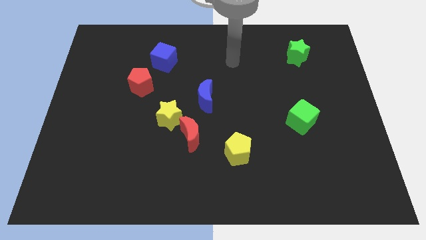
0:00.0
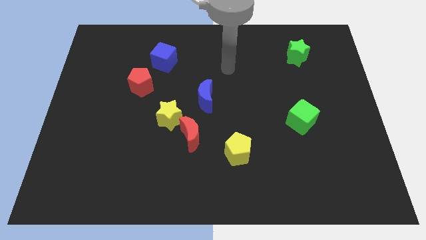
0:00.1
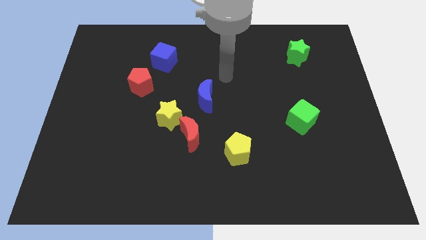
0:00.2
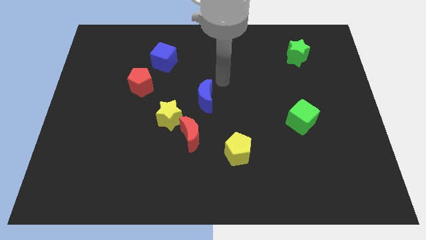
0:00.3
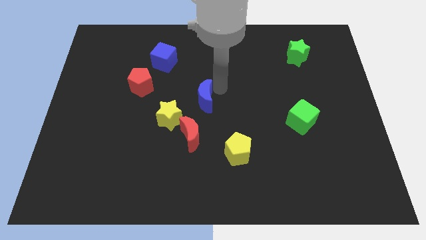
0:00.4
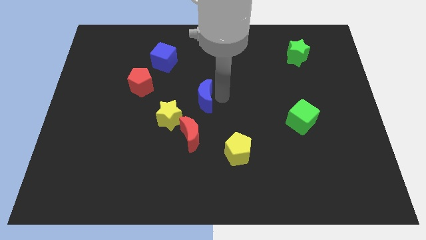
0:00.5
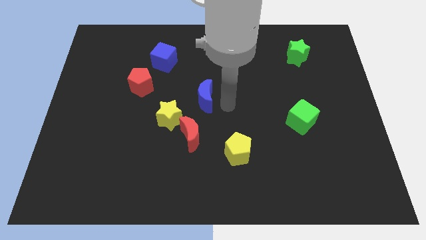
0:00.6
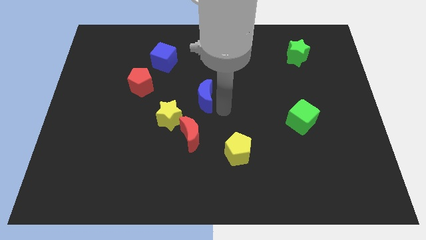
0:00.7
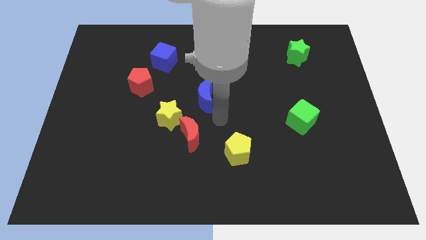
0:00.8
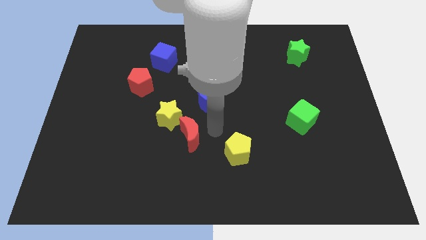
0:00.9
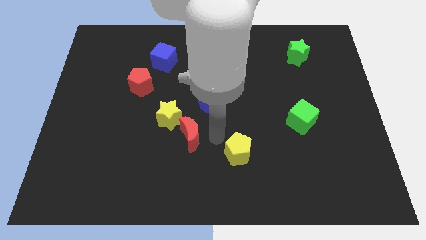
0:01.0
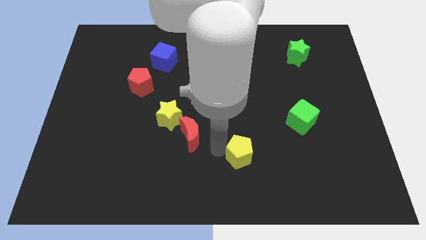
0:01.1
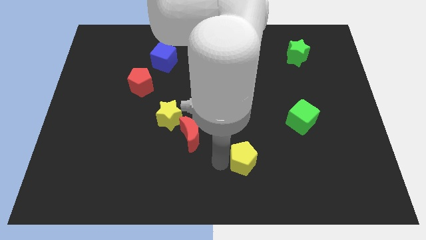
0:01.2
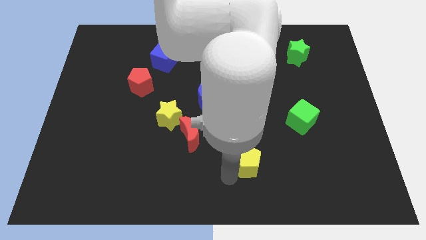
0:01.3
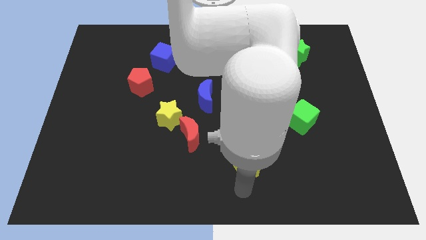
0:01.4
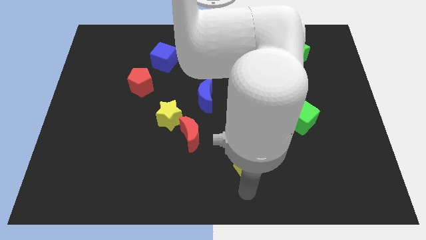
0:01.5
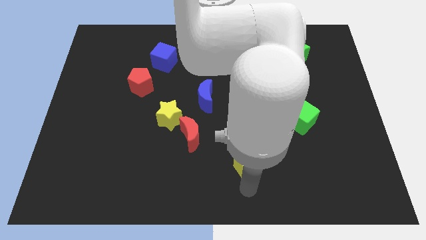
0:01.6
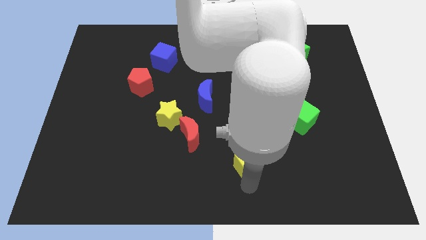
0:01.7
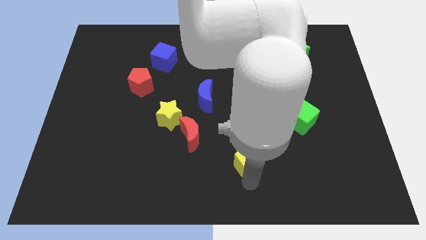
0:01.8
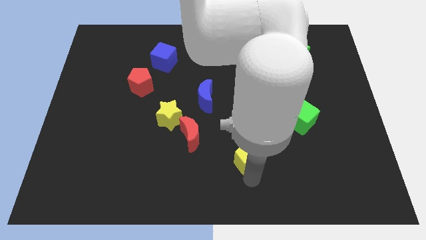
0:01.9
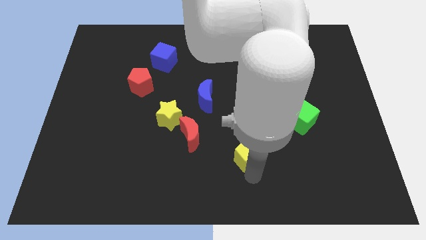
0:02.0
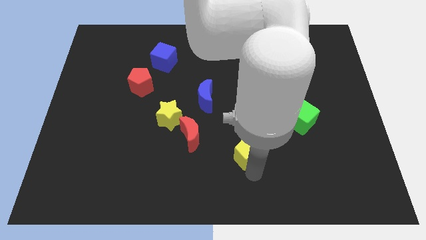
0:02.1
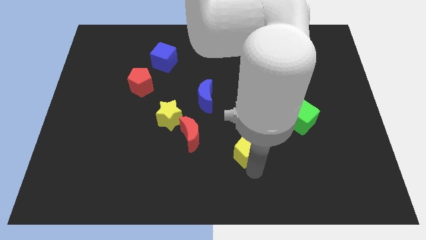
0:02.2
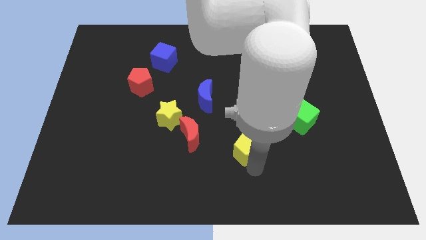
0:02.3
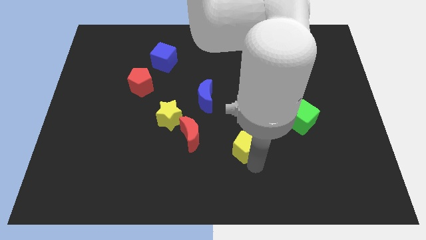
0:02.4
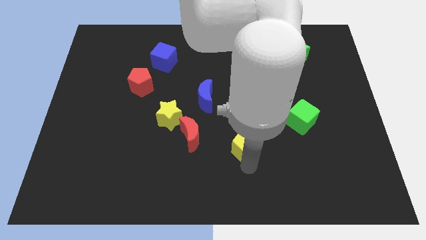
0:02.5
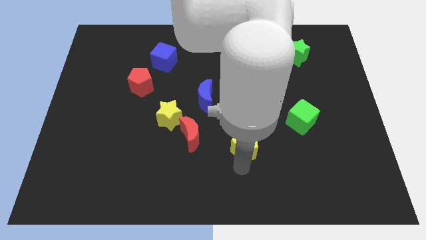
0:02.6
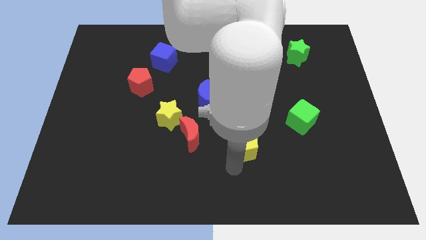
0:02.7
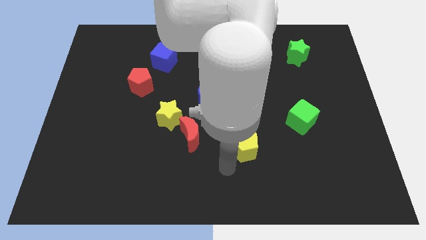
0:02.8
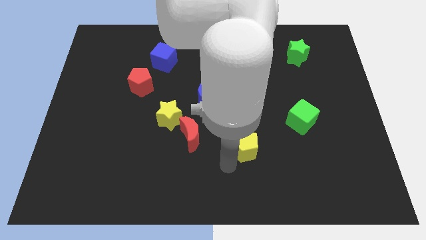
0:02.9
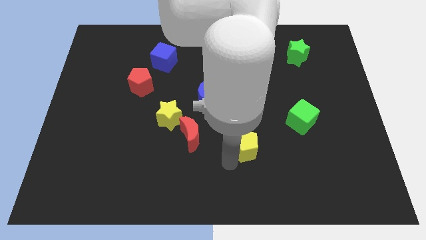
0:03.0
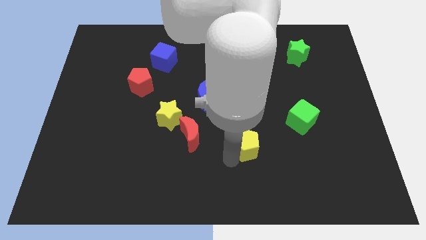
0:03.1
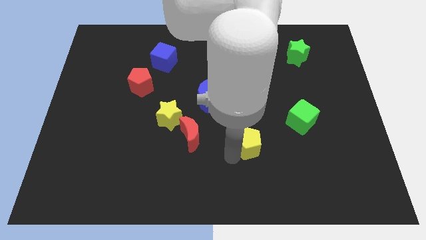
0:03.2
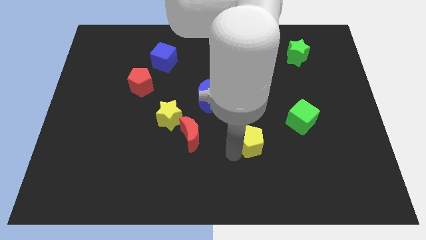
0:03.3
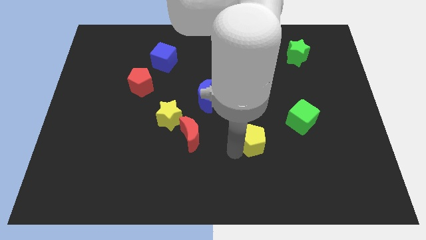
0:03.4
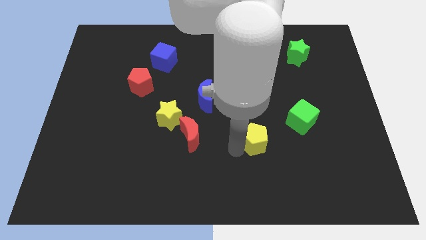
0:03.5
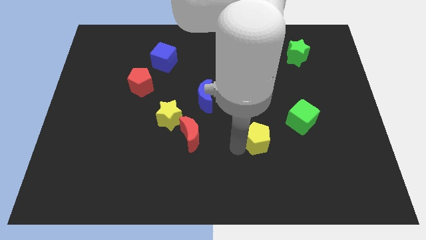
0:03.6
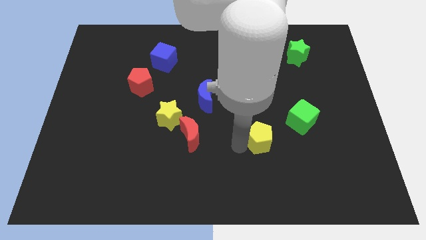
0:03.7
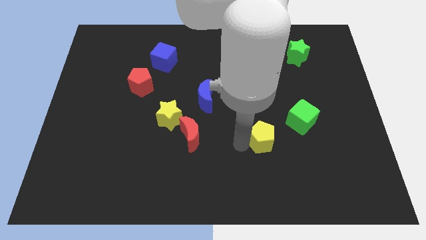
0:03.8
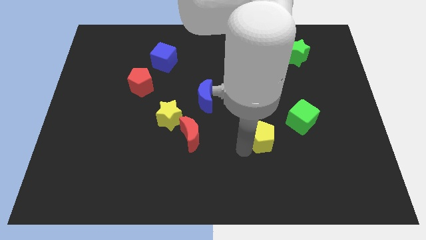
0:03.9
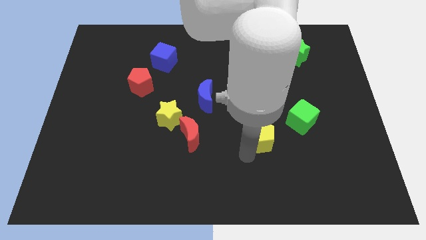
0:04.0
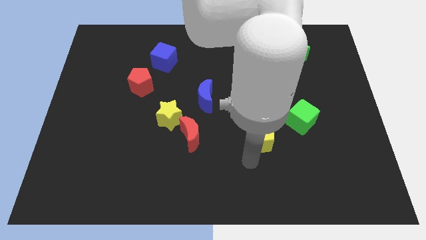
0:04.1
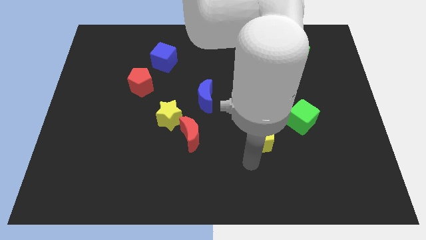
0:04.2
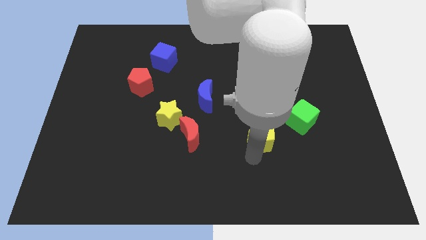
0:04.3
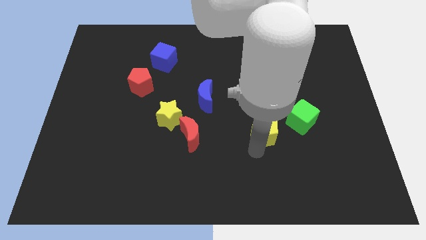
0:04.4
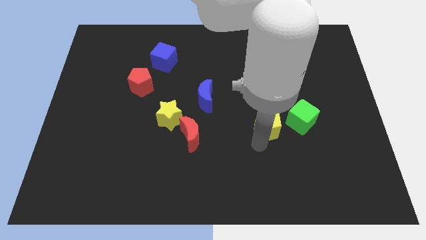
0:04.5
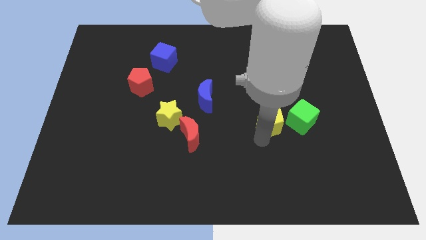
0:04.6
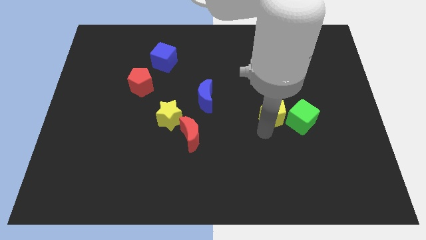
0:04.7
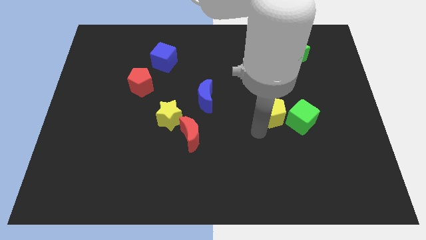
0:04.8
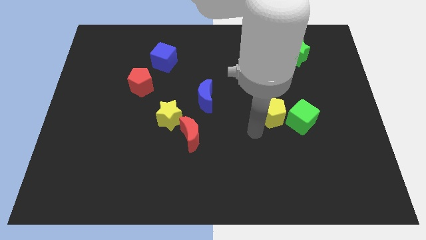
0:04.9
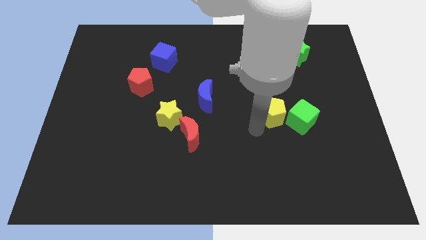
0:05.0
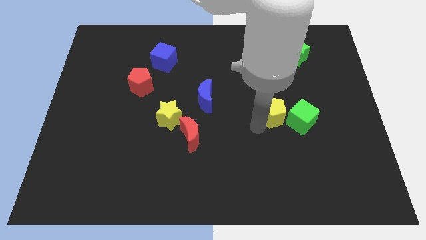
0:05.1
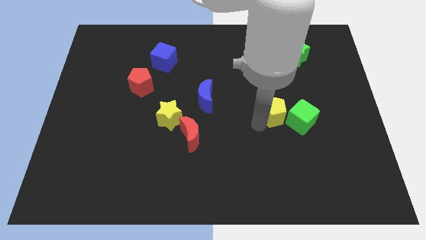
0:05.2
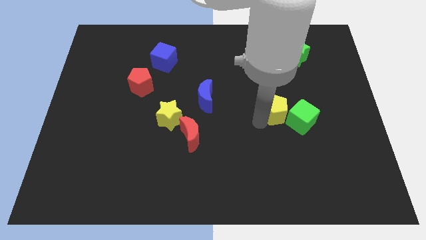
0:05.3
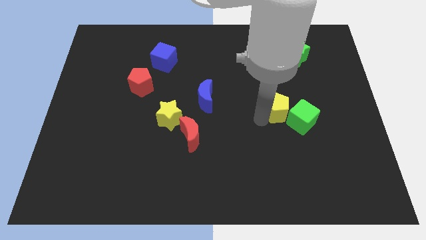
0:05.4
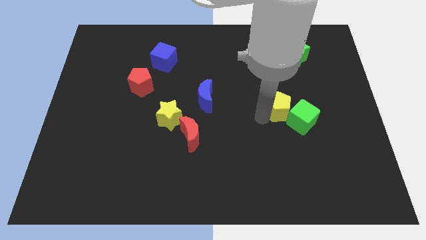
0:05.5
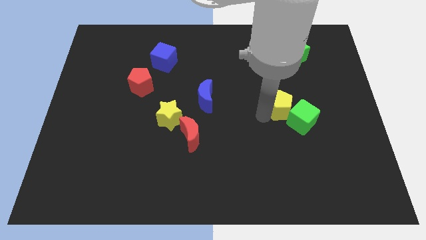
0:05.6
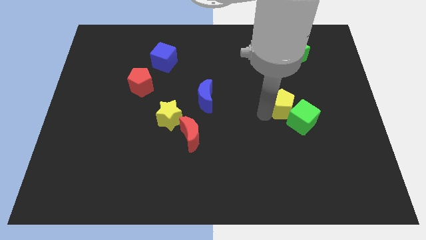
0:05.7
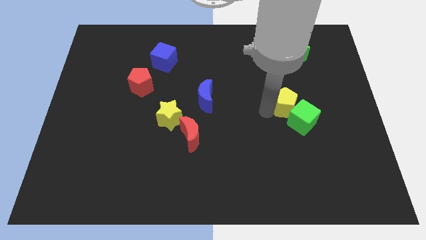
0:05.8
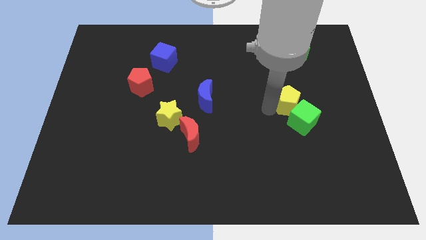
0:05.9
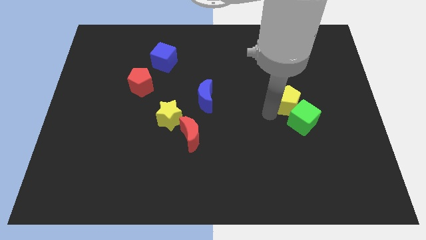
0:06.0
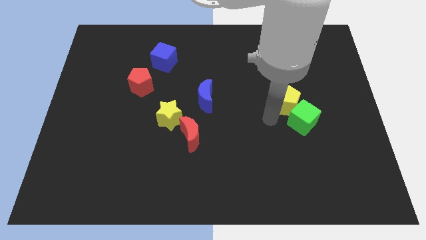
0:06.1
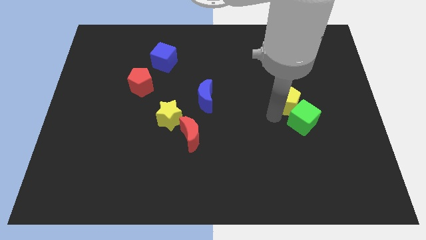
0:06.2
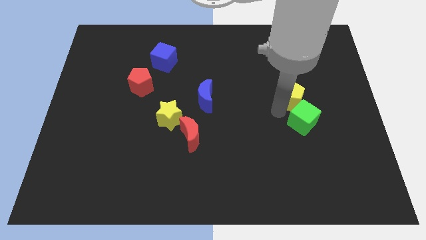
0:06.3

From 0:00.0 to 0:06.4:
move the yellow pentagon to the bottom of the green star
